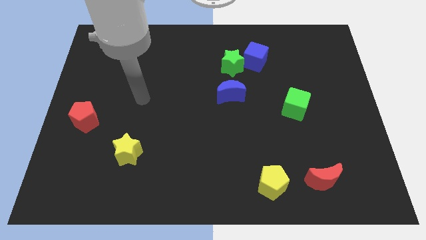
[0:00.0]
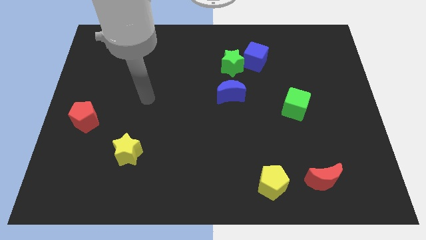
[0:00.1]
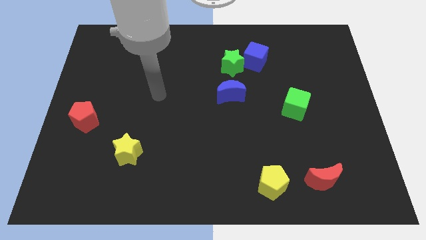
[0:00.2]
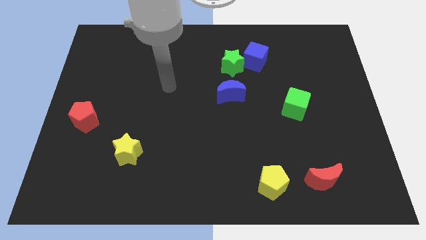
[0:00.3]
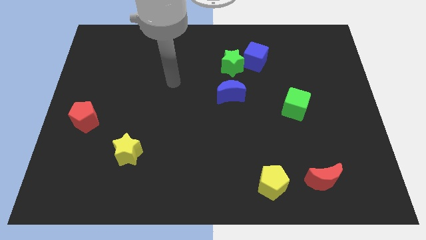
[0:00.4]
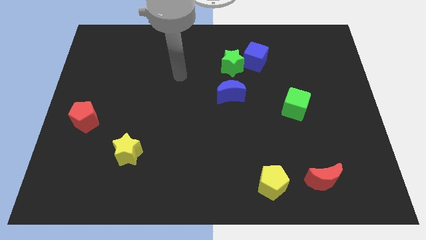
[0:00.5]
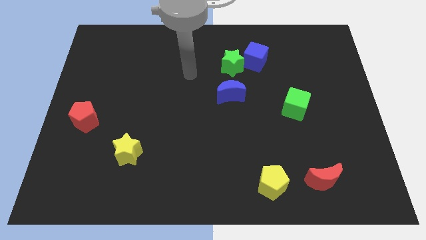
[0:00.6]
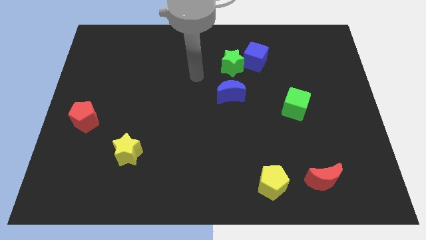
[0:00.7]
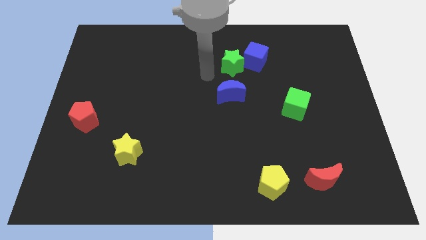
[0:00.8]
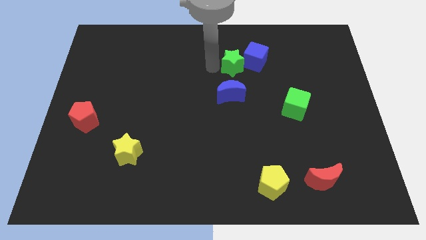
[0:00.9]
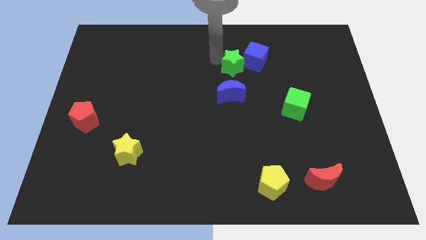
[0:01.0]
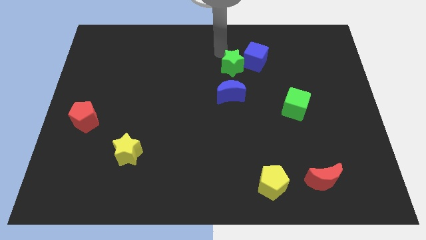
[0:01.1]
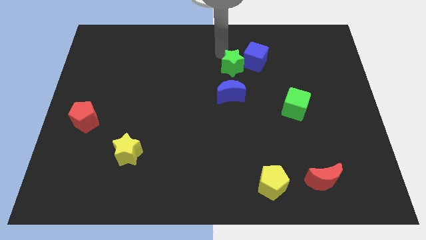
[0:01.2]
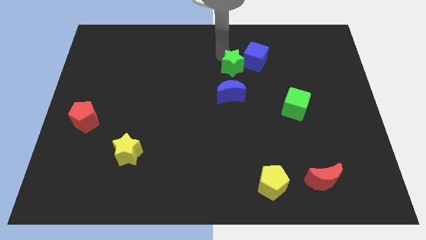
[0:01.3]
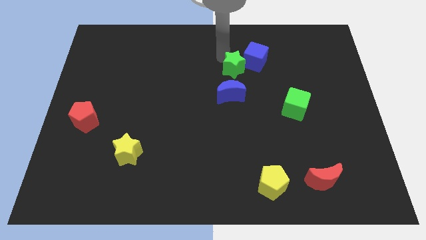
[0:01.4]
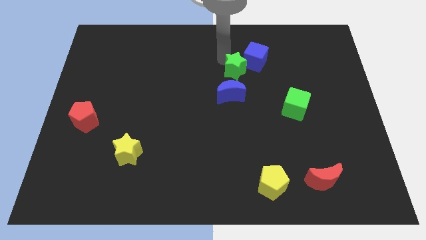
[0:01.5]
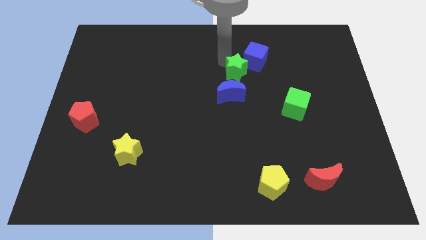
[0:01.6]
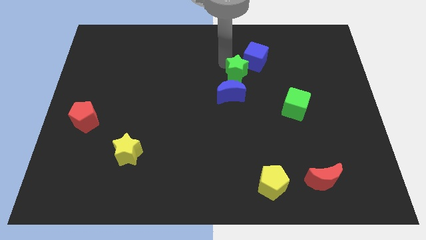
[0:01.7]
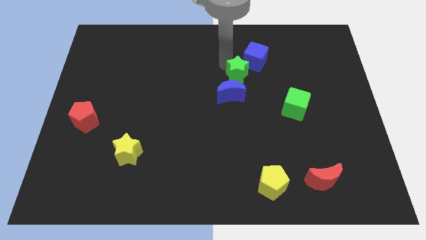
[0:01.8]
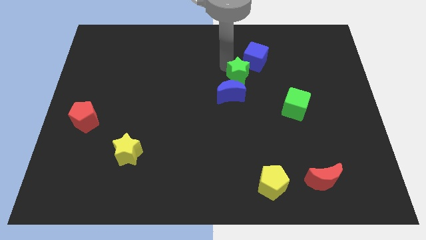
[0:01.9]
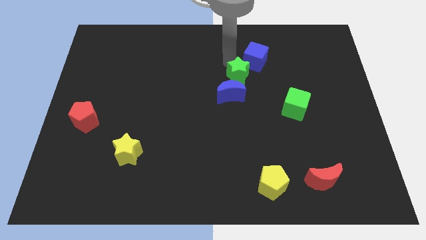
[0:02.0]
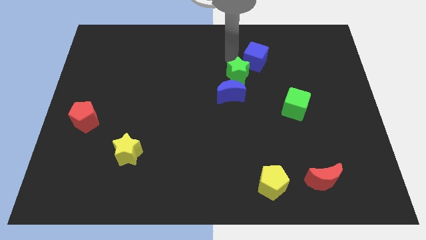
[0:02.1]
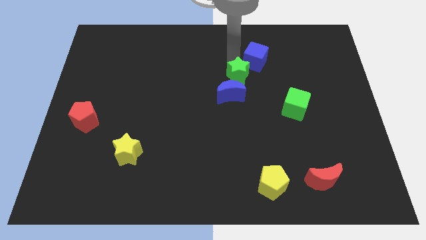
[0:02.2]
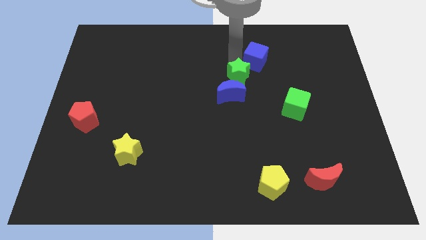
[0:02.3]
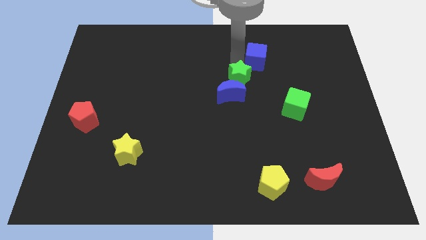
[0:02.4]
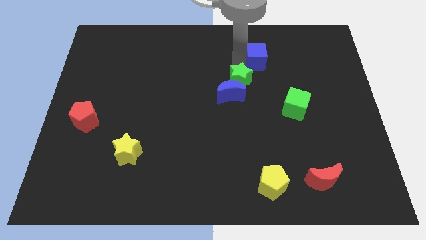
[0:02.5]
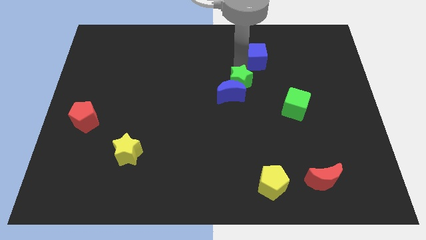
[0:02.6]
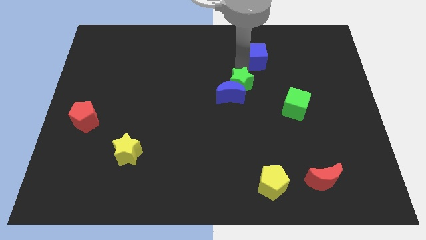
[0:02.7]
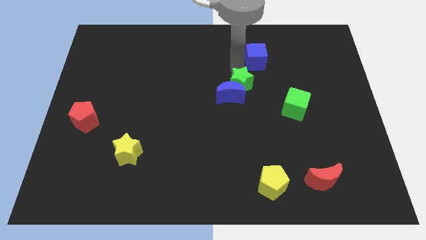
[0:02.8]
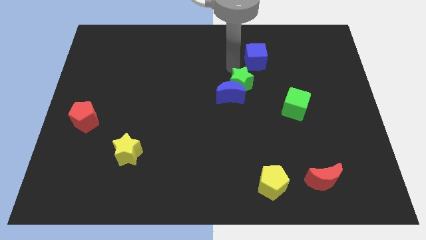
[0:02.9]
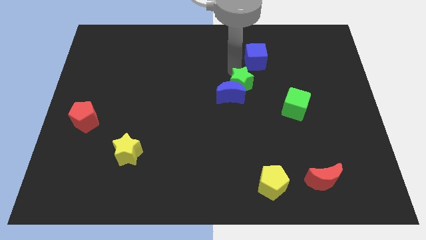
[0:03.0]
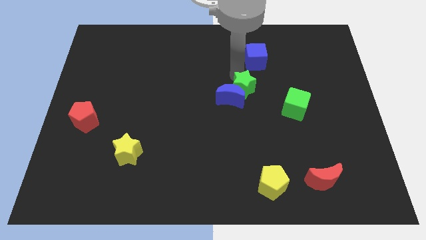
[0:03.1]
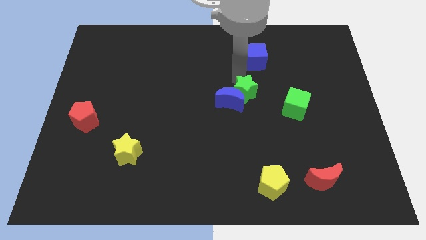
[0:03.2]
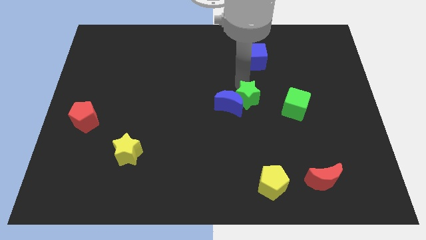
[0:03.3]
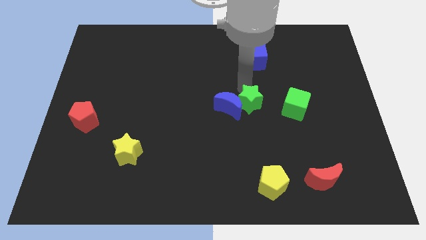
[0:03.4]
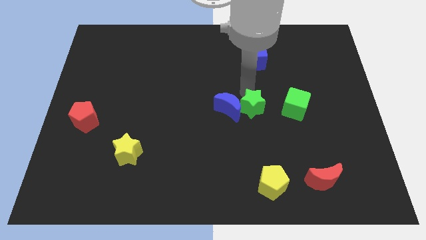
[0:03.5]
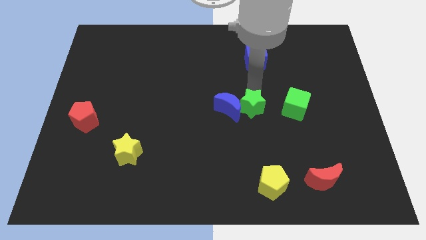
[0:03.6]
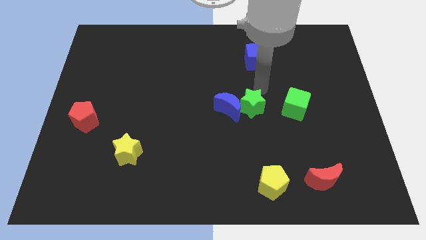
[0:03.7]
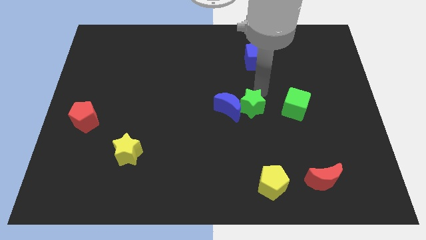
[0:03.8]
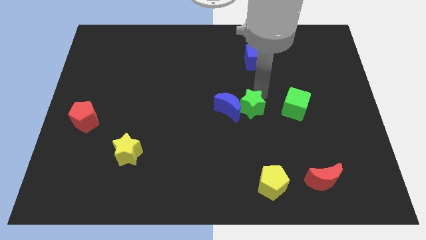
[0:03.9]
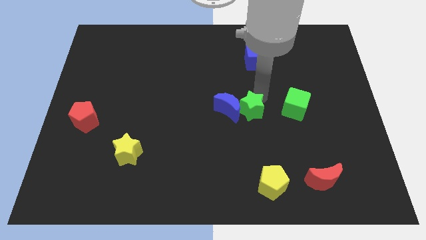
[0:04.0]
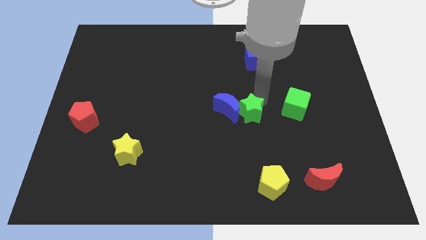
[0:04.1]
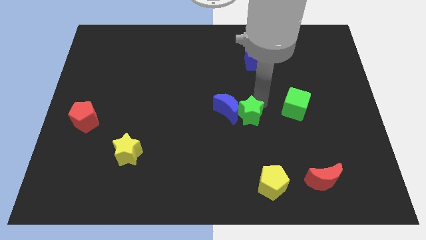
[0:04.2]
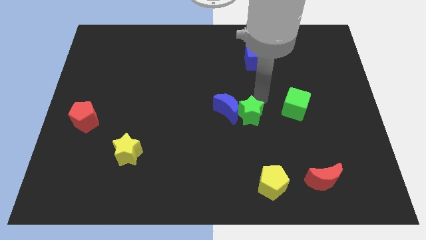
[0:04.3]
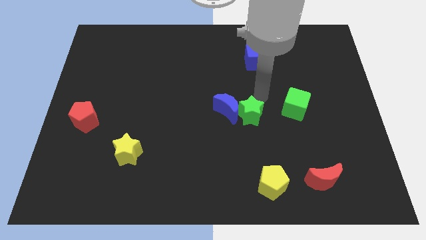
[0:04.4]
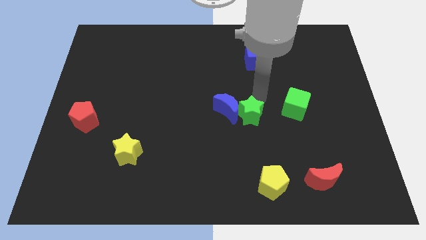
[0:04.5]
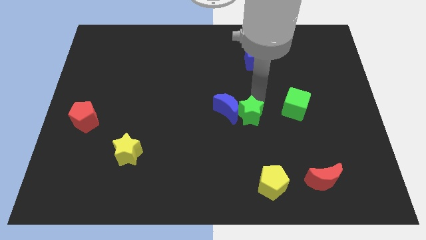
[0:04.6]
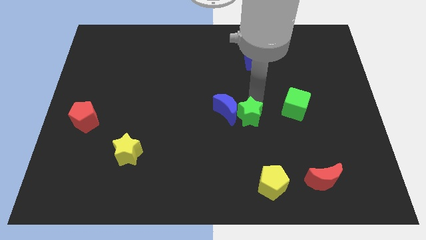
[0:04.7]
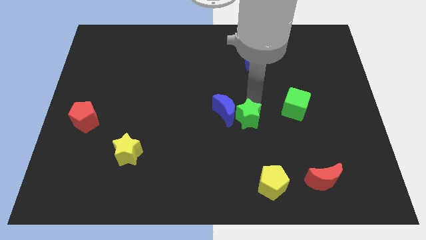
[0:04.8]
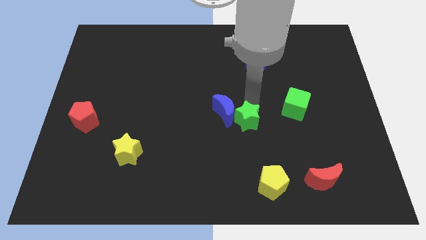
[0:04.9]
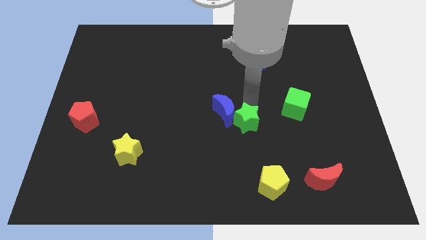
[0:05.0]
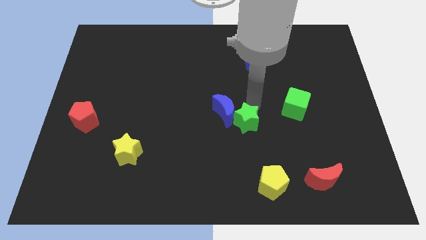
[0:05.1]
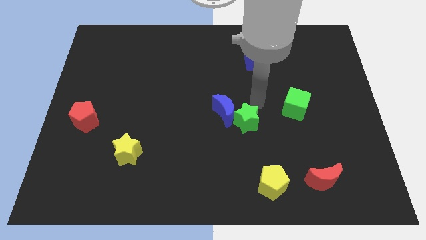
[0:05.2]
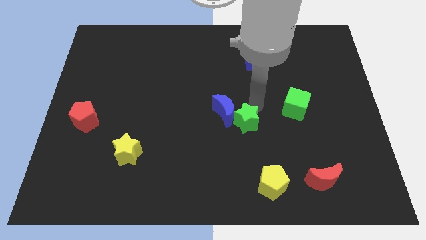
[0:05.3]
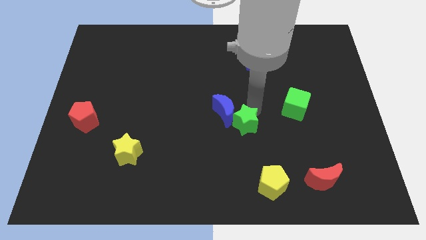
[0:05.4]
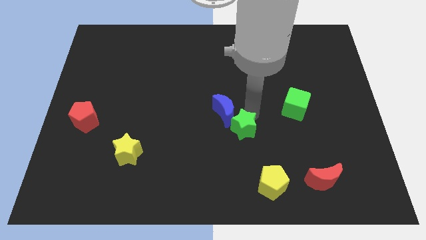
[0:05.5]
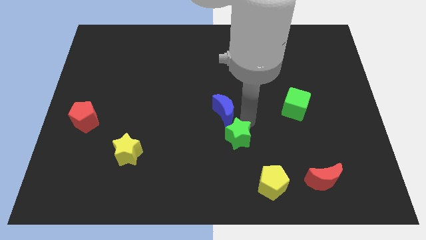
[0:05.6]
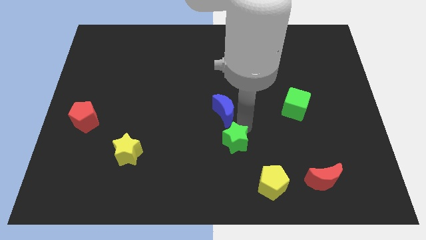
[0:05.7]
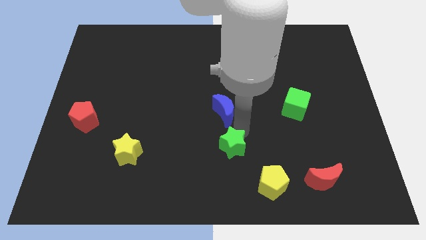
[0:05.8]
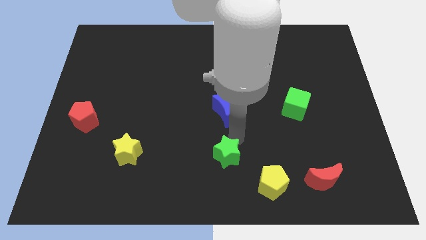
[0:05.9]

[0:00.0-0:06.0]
put the green star to the bottom side

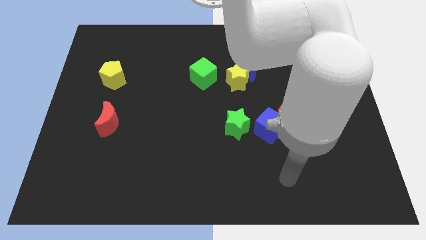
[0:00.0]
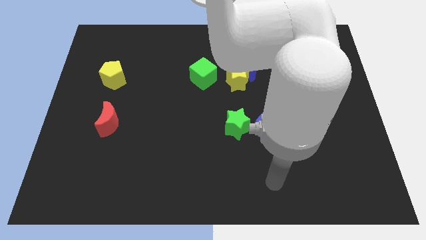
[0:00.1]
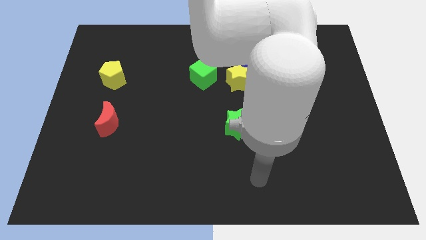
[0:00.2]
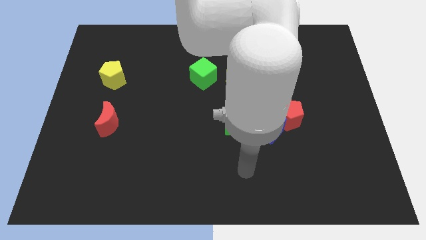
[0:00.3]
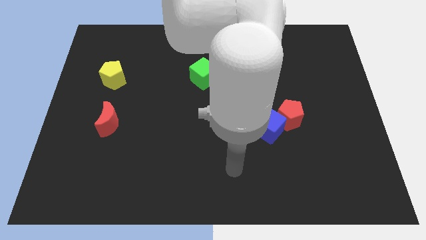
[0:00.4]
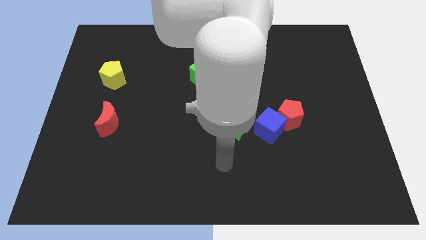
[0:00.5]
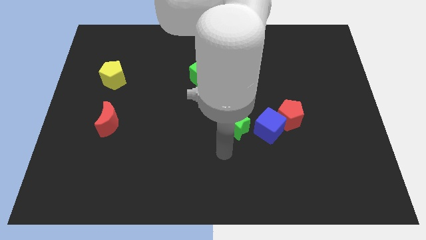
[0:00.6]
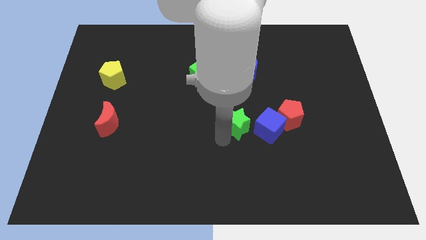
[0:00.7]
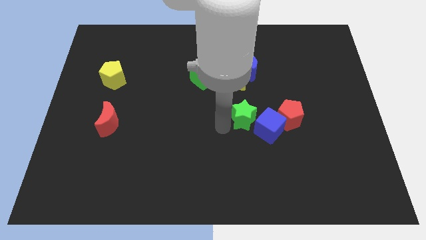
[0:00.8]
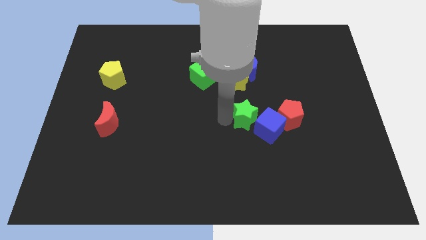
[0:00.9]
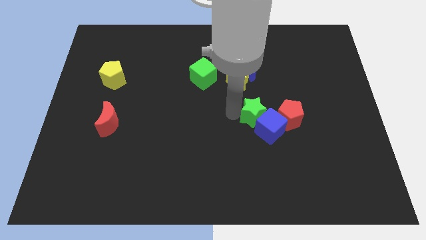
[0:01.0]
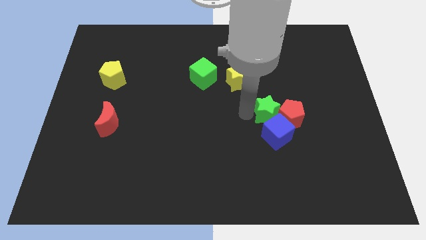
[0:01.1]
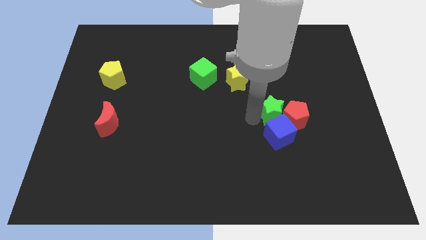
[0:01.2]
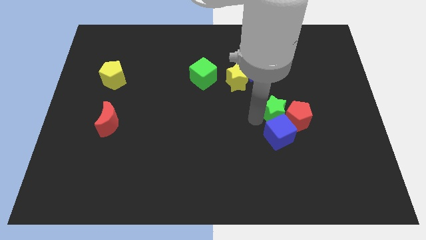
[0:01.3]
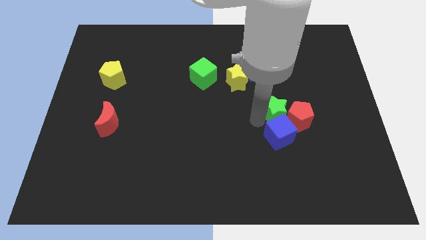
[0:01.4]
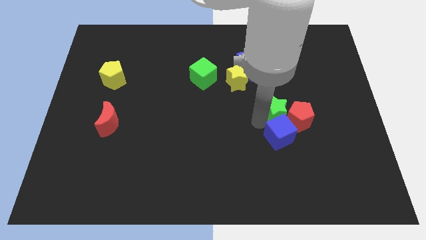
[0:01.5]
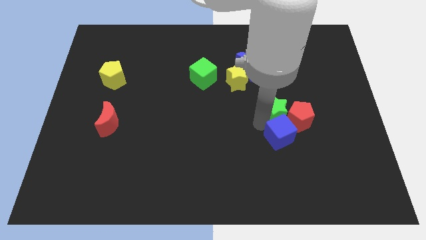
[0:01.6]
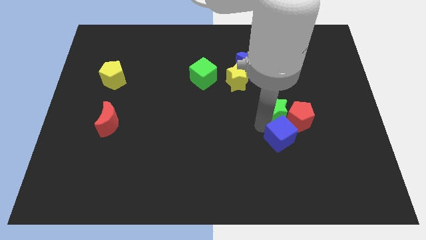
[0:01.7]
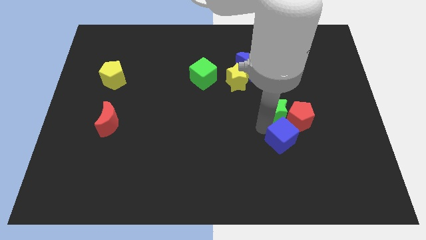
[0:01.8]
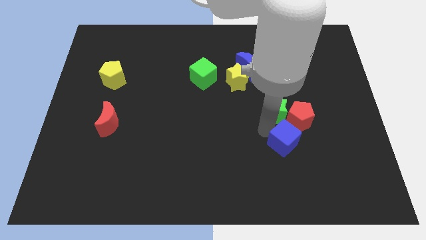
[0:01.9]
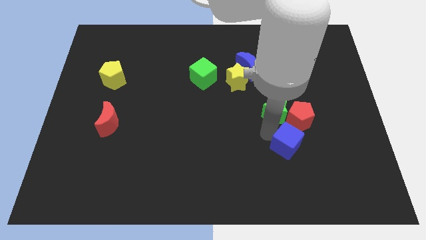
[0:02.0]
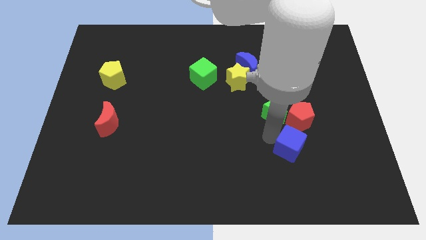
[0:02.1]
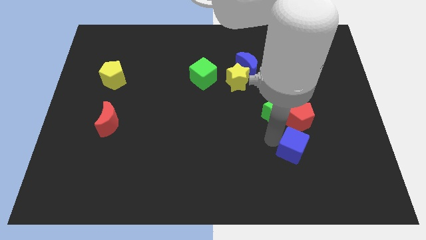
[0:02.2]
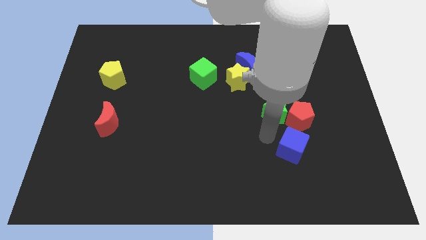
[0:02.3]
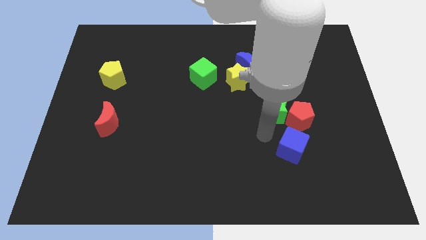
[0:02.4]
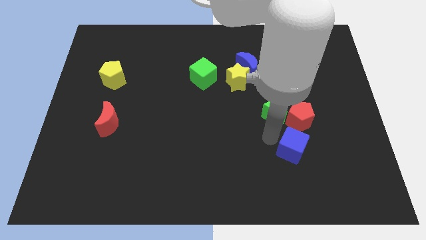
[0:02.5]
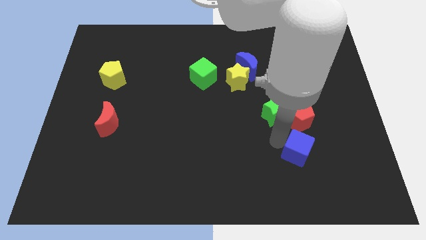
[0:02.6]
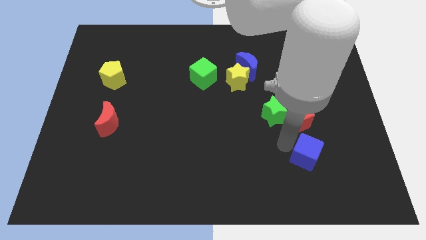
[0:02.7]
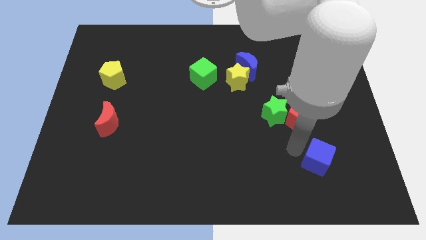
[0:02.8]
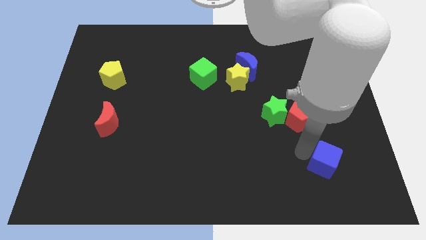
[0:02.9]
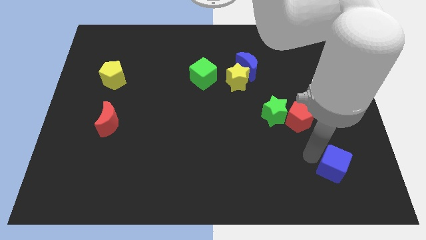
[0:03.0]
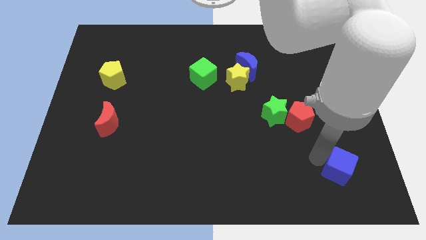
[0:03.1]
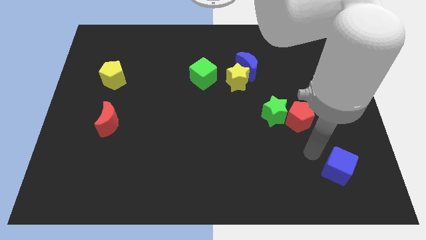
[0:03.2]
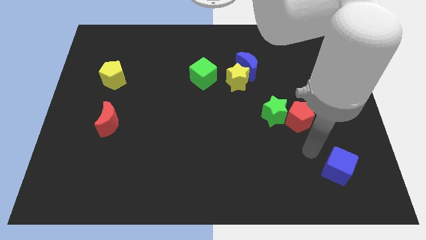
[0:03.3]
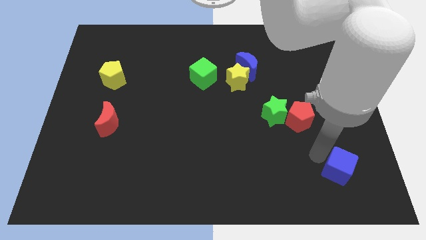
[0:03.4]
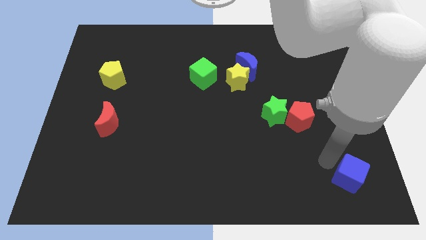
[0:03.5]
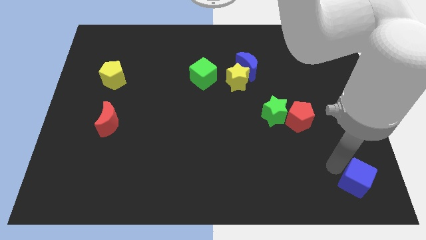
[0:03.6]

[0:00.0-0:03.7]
put the blue cube to the bottom right corner
